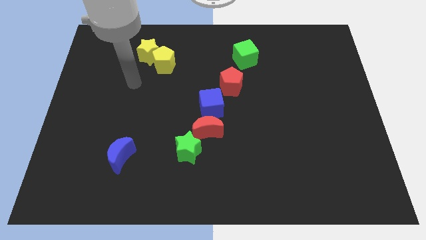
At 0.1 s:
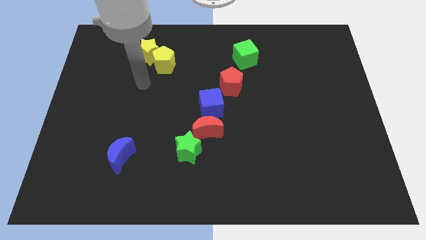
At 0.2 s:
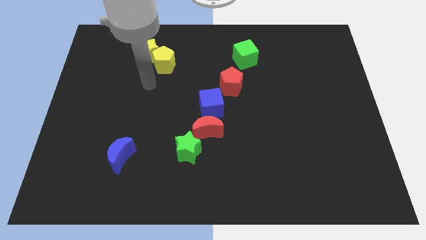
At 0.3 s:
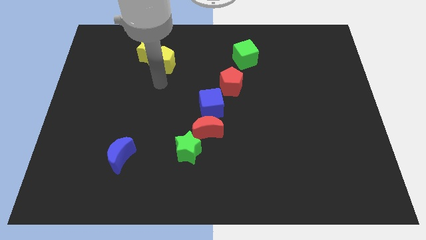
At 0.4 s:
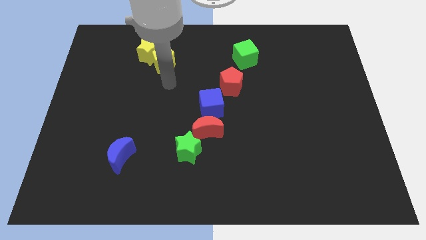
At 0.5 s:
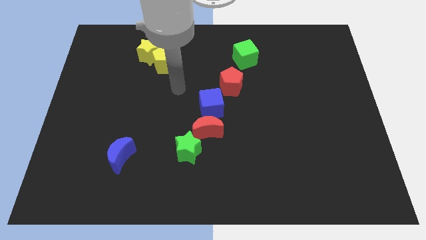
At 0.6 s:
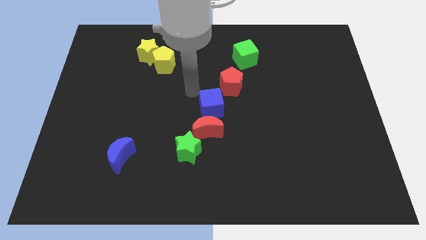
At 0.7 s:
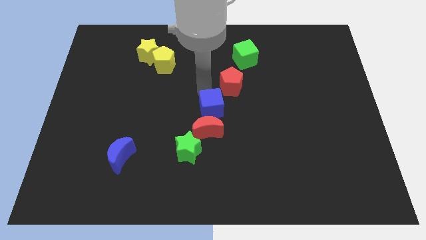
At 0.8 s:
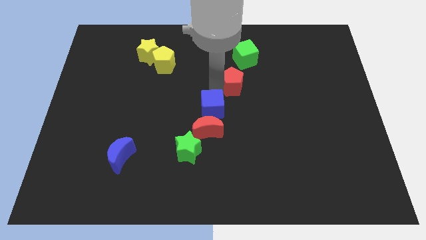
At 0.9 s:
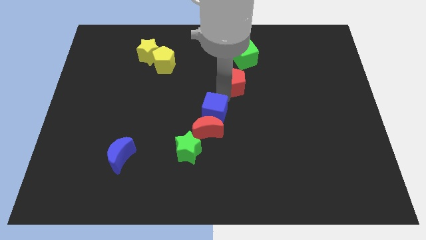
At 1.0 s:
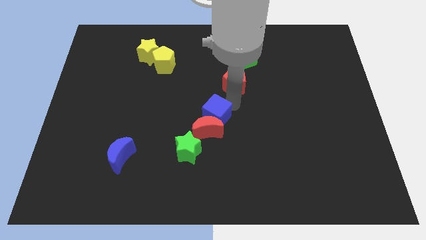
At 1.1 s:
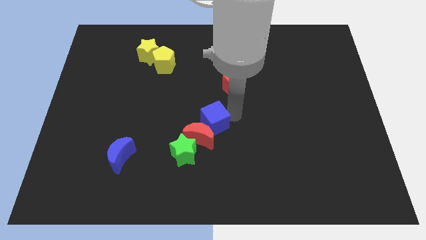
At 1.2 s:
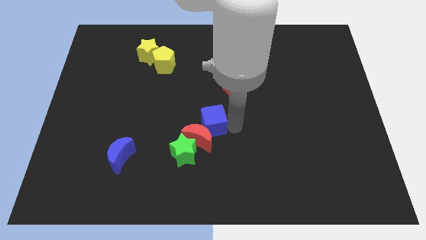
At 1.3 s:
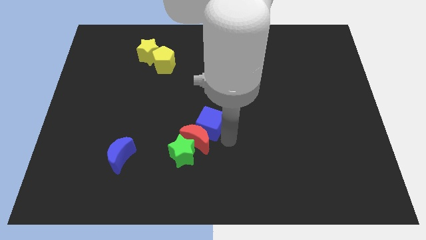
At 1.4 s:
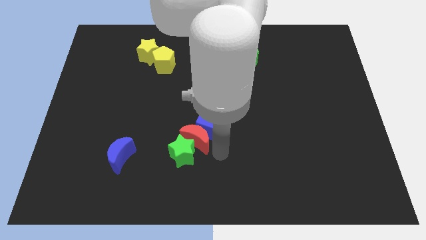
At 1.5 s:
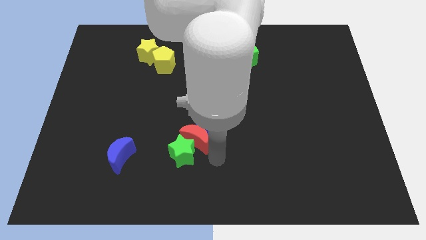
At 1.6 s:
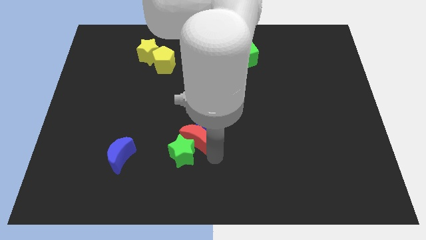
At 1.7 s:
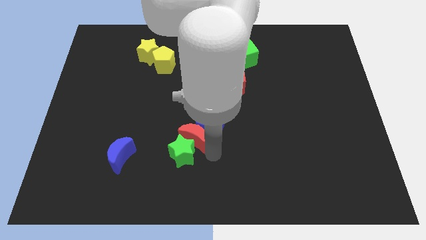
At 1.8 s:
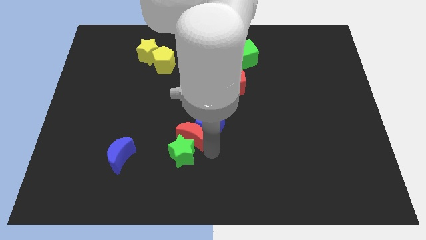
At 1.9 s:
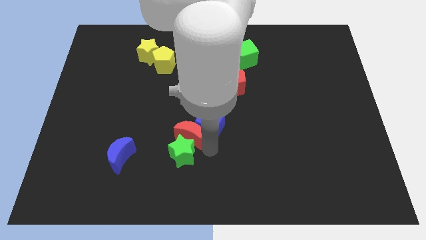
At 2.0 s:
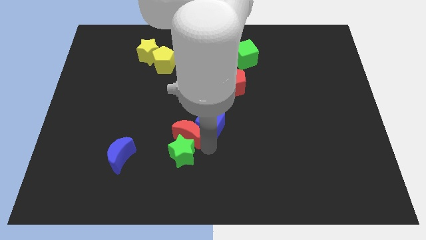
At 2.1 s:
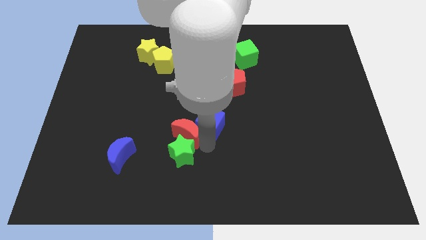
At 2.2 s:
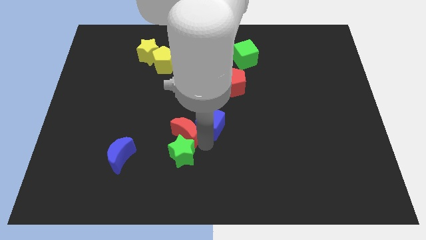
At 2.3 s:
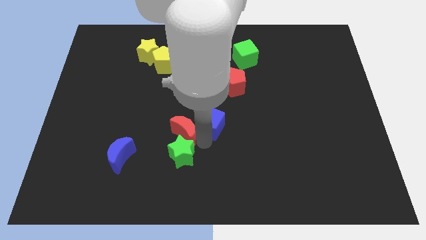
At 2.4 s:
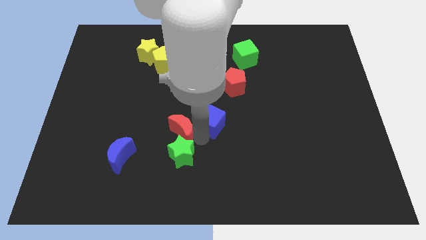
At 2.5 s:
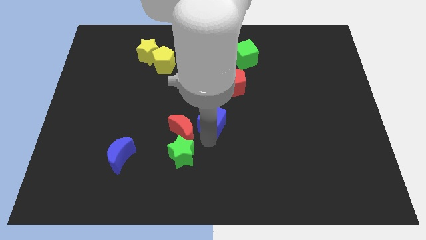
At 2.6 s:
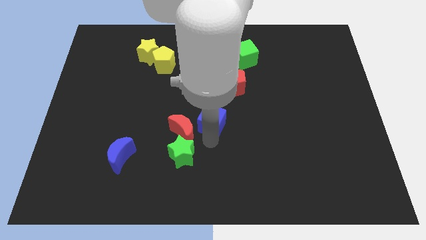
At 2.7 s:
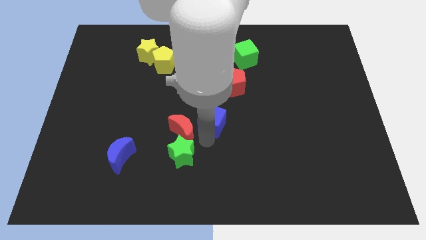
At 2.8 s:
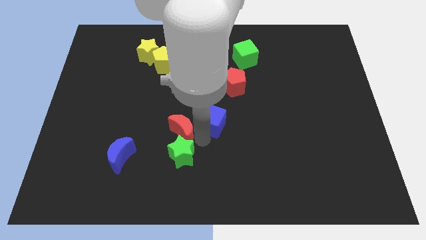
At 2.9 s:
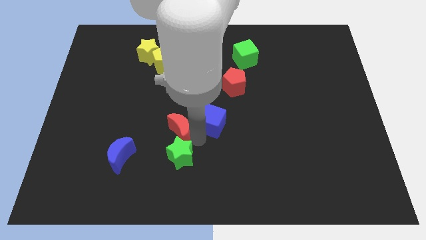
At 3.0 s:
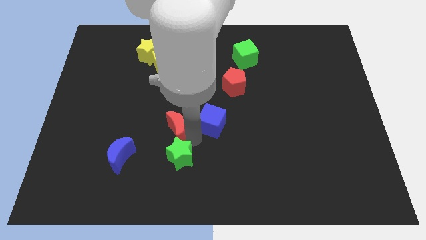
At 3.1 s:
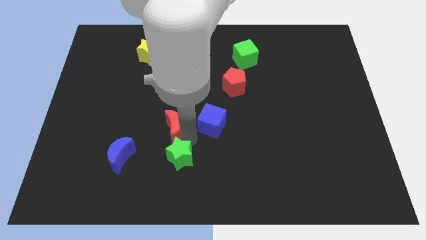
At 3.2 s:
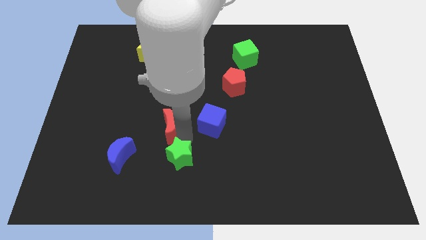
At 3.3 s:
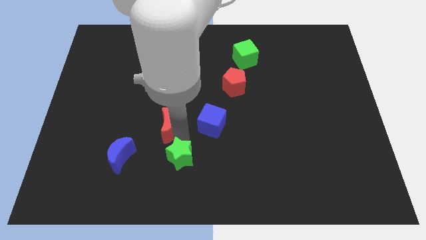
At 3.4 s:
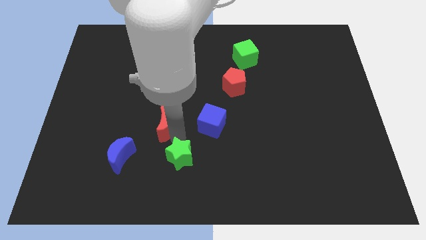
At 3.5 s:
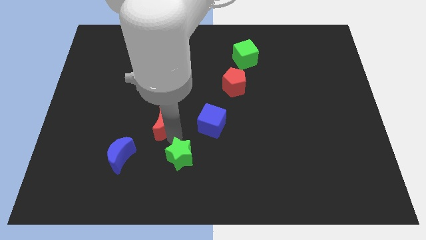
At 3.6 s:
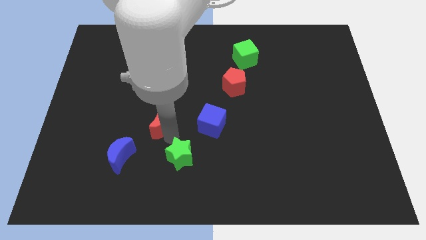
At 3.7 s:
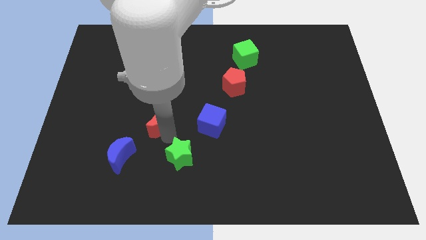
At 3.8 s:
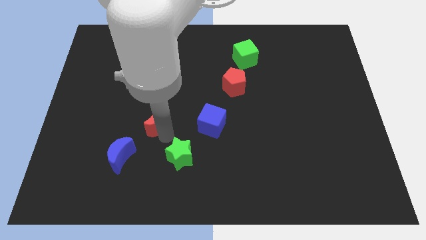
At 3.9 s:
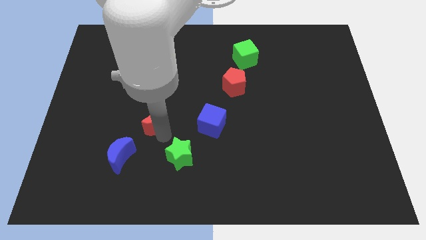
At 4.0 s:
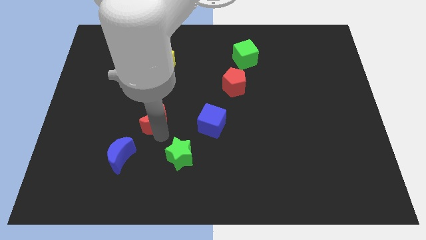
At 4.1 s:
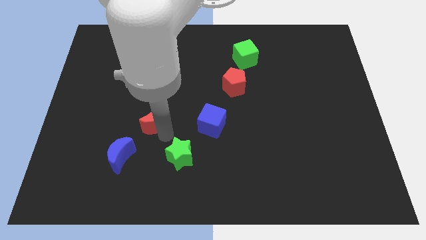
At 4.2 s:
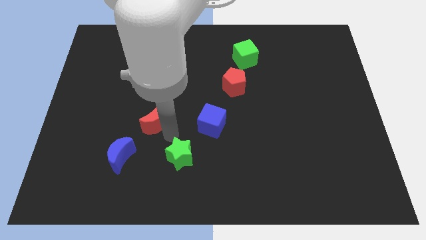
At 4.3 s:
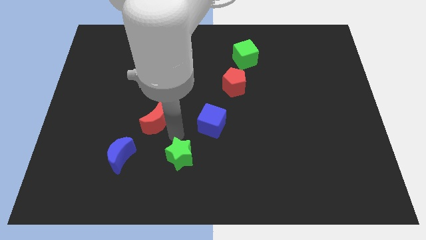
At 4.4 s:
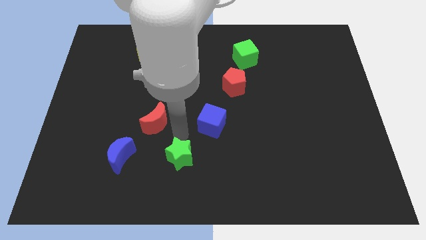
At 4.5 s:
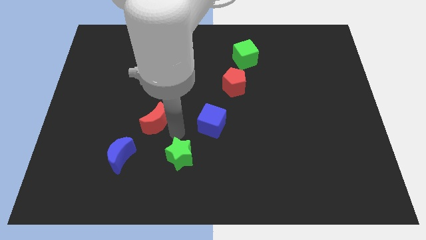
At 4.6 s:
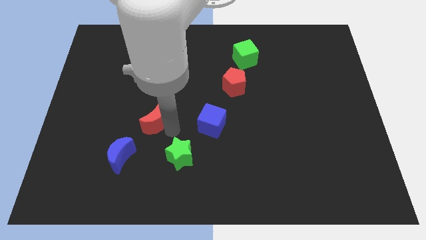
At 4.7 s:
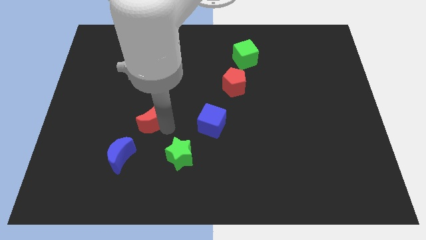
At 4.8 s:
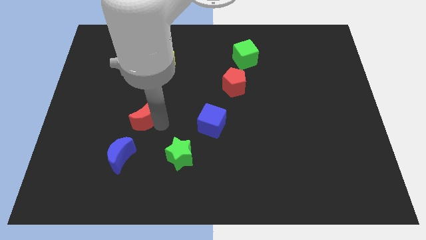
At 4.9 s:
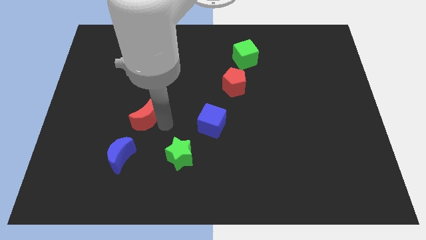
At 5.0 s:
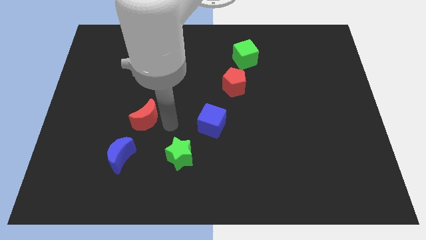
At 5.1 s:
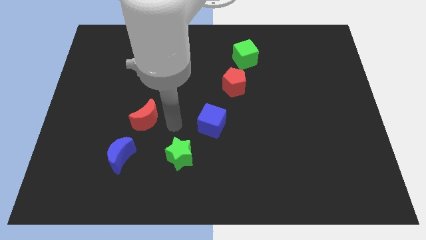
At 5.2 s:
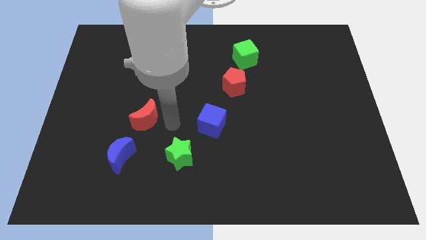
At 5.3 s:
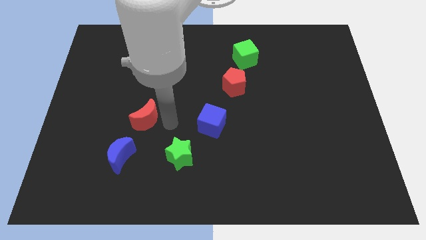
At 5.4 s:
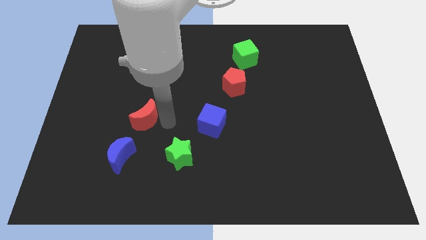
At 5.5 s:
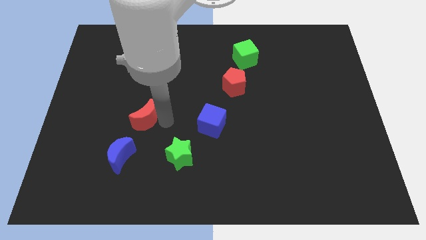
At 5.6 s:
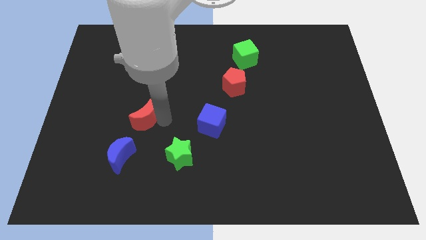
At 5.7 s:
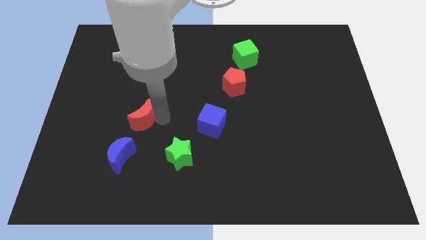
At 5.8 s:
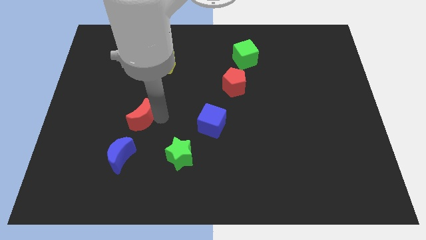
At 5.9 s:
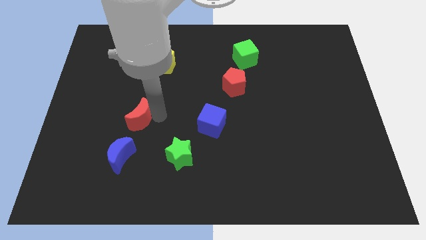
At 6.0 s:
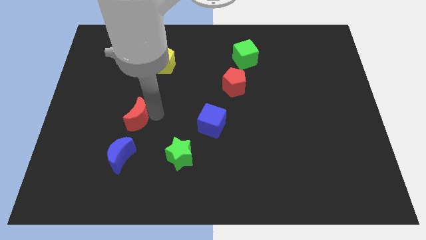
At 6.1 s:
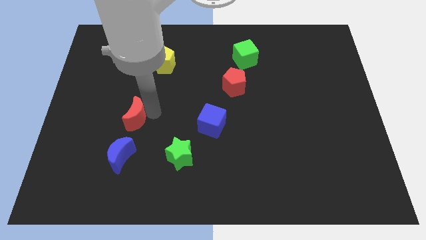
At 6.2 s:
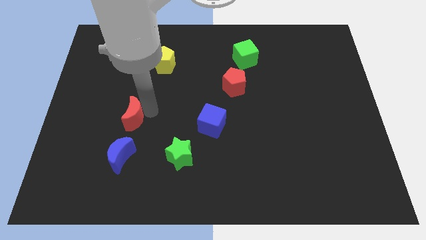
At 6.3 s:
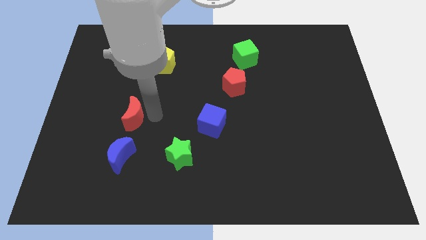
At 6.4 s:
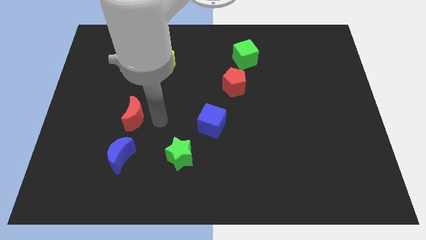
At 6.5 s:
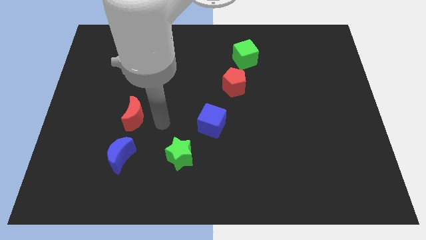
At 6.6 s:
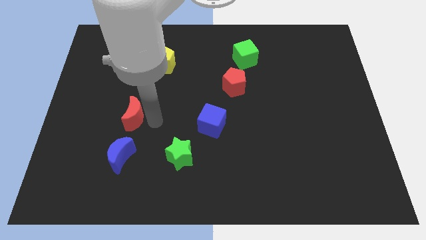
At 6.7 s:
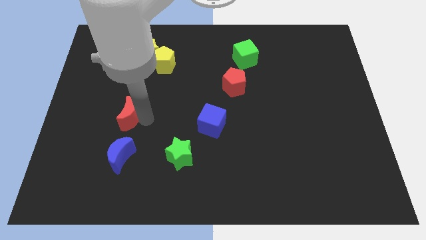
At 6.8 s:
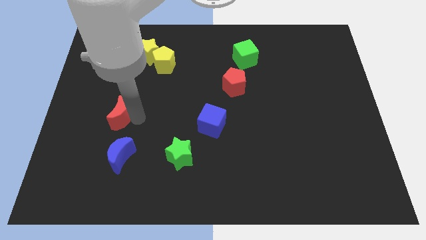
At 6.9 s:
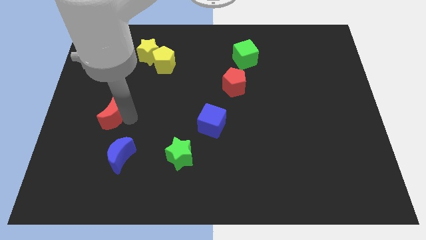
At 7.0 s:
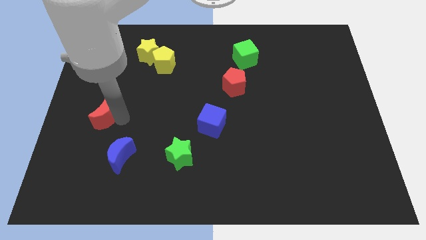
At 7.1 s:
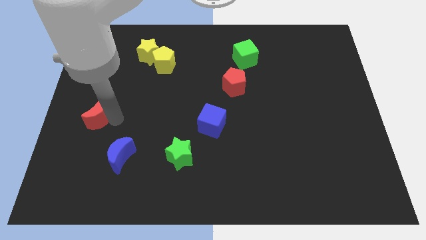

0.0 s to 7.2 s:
move the red moon to the left side

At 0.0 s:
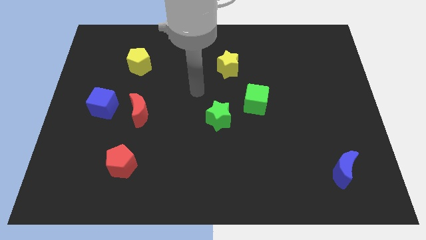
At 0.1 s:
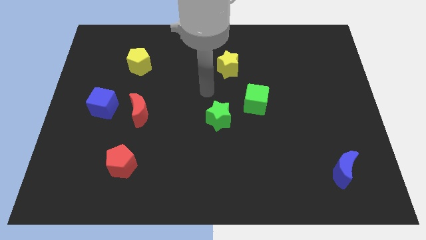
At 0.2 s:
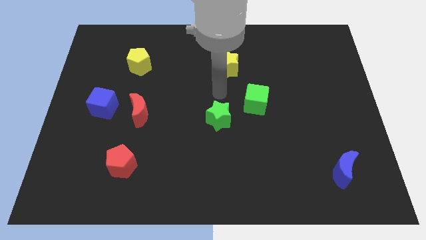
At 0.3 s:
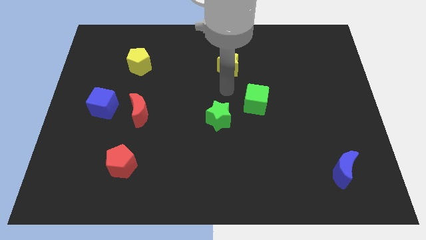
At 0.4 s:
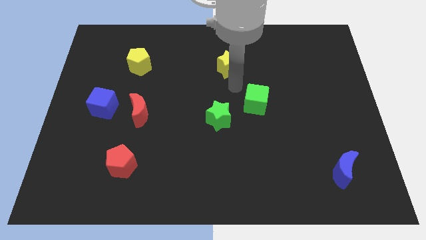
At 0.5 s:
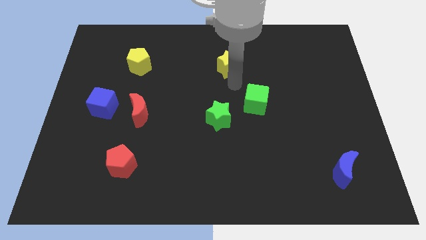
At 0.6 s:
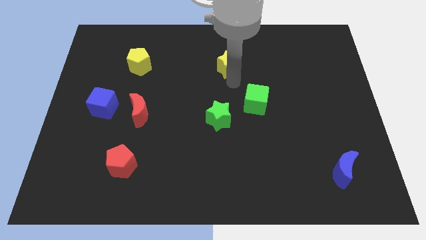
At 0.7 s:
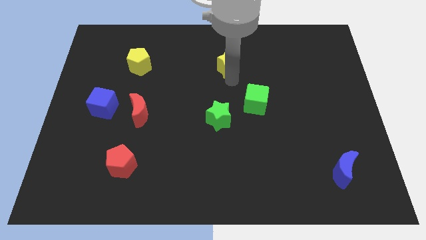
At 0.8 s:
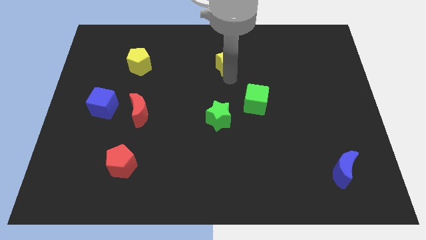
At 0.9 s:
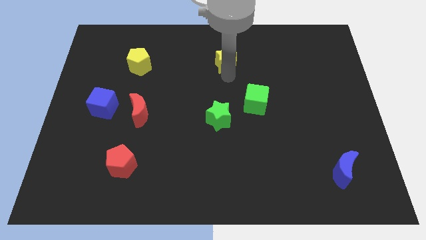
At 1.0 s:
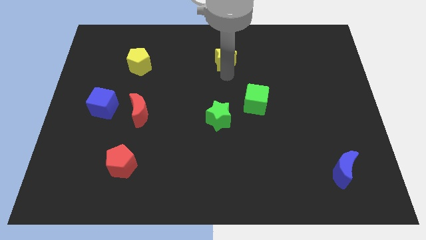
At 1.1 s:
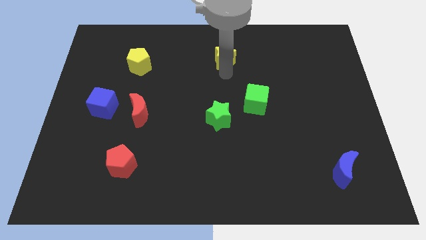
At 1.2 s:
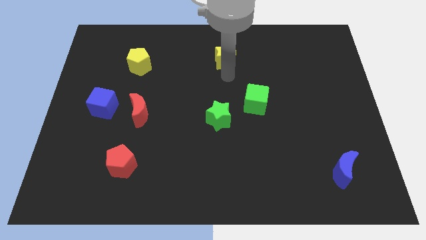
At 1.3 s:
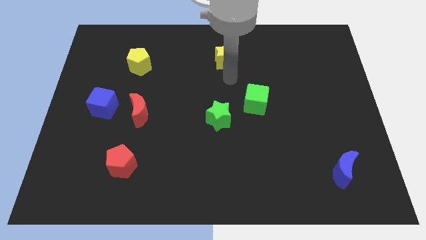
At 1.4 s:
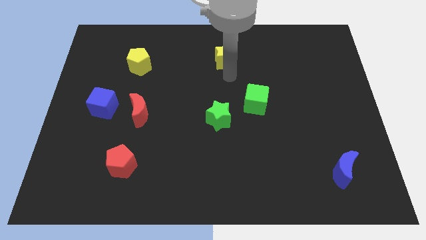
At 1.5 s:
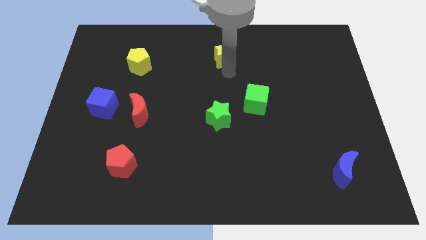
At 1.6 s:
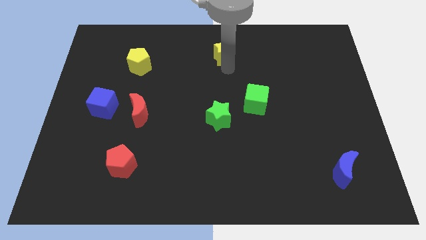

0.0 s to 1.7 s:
put the yellow star to the top side
